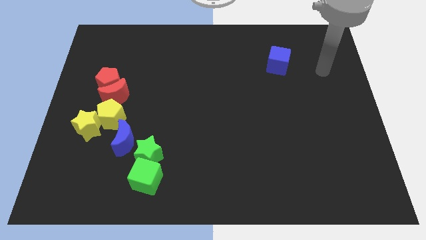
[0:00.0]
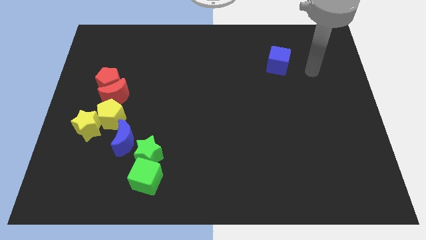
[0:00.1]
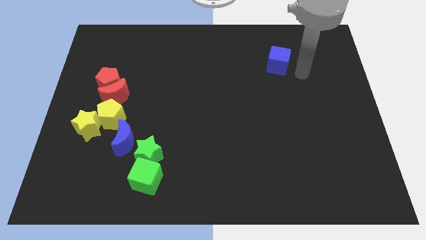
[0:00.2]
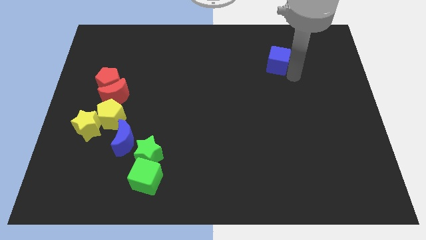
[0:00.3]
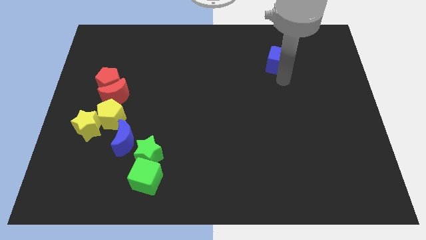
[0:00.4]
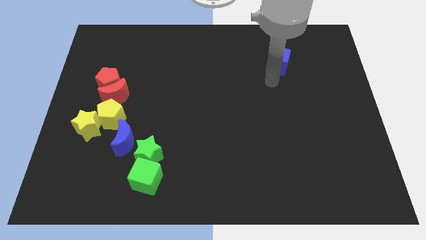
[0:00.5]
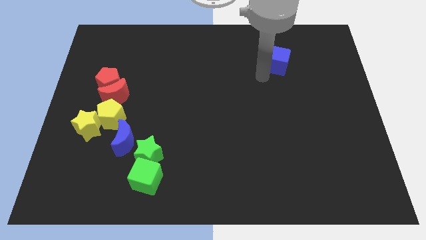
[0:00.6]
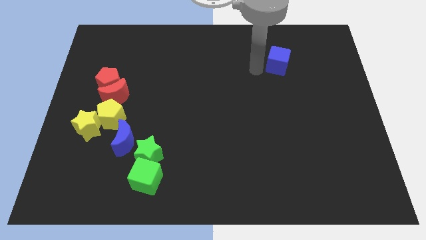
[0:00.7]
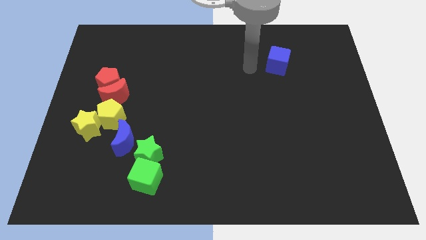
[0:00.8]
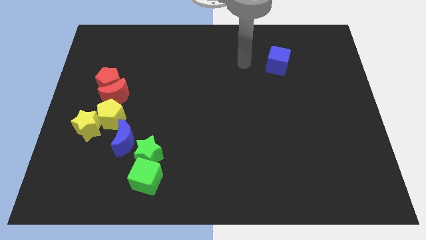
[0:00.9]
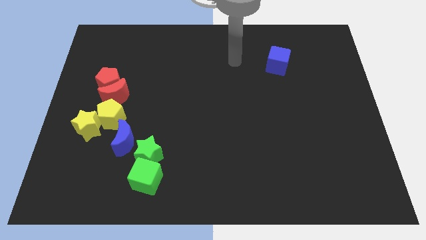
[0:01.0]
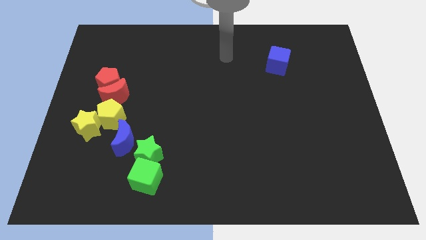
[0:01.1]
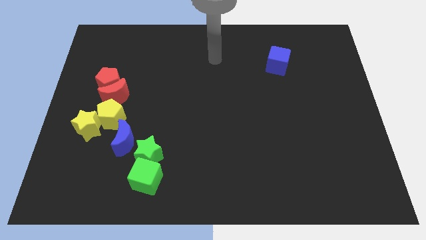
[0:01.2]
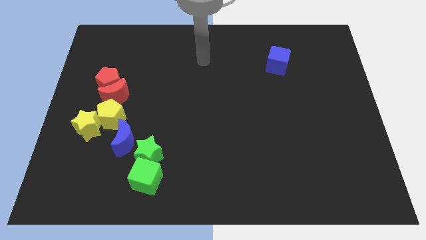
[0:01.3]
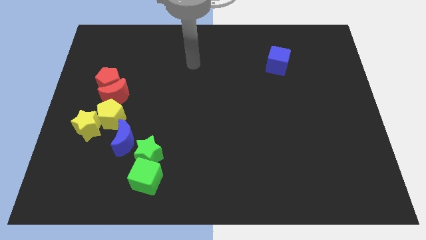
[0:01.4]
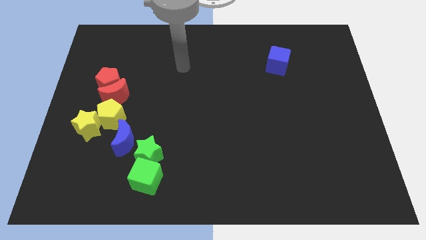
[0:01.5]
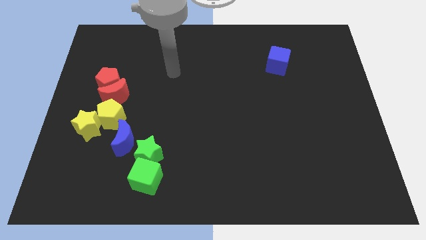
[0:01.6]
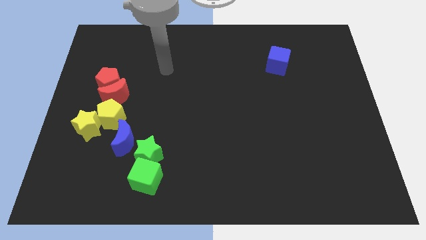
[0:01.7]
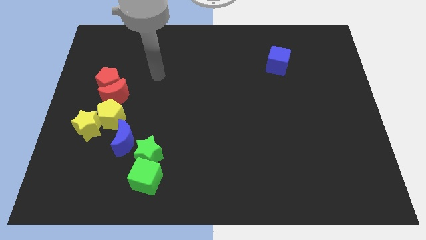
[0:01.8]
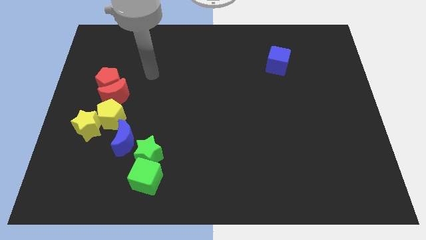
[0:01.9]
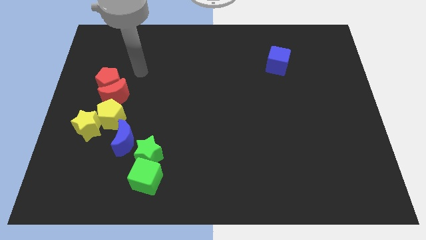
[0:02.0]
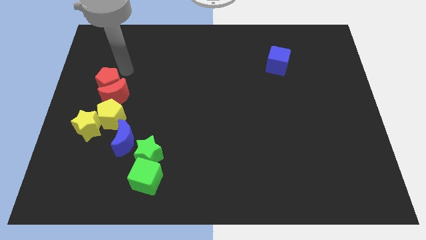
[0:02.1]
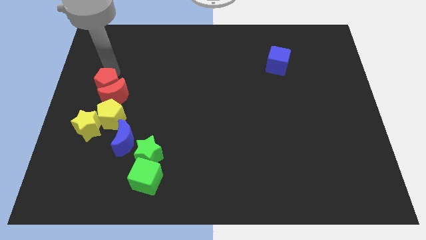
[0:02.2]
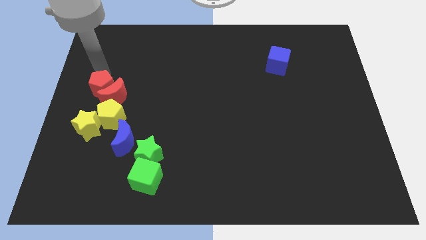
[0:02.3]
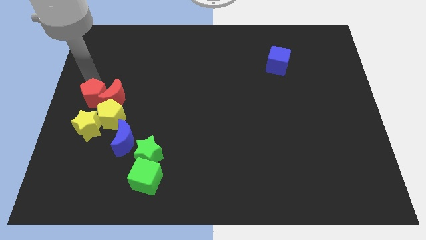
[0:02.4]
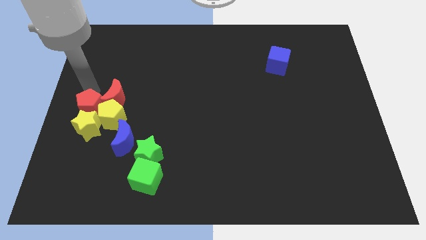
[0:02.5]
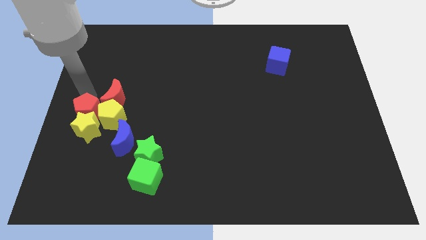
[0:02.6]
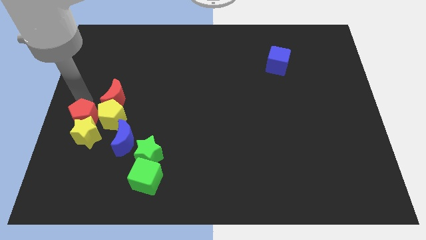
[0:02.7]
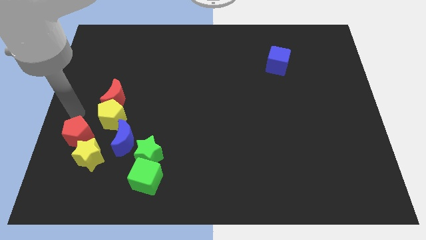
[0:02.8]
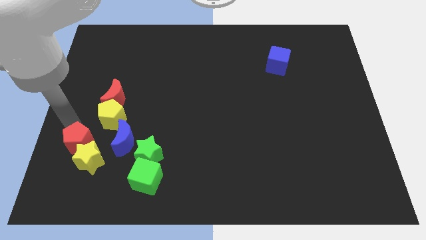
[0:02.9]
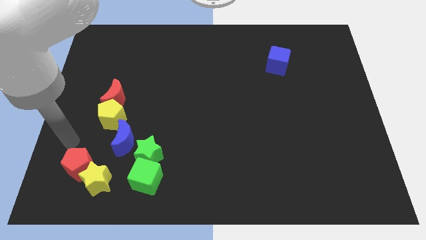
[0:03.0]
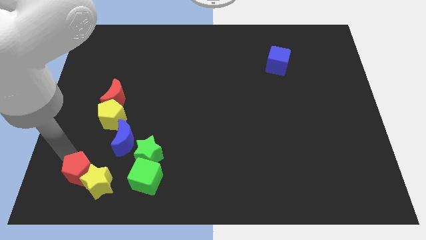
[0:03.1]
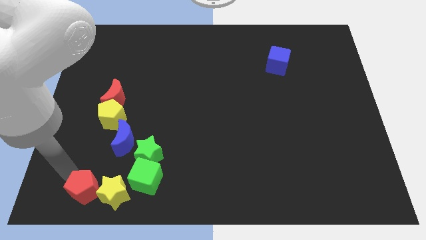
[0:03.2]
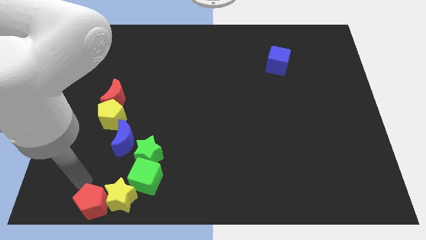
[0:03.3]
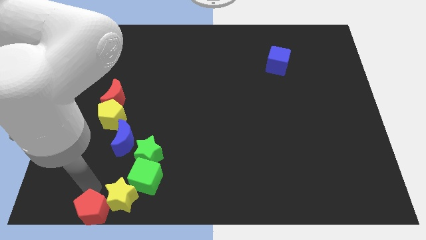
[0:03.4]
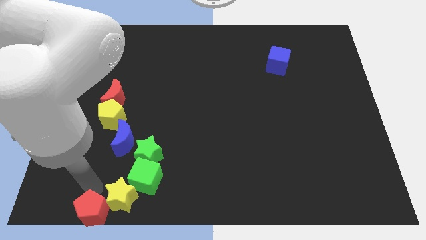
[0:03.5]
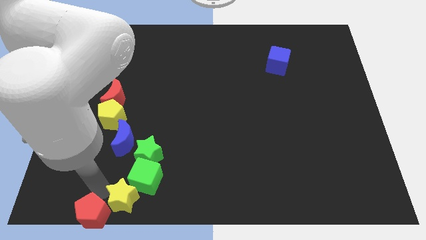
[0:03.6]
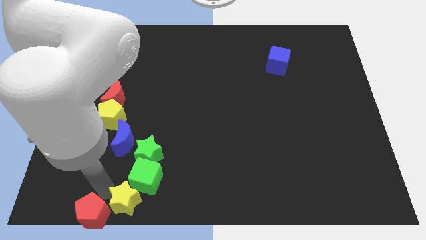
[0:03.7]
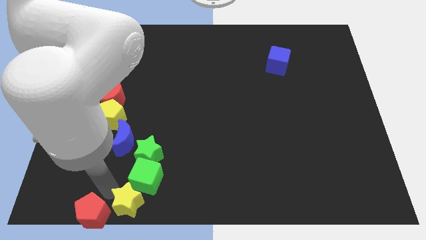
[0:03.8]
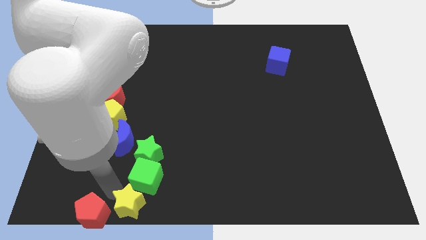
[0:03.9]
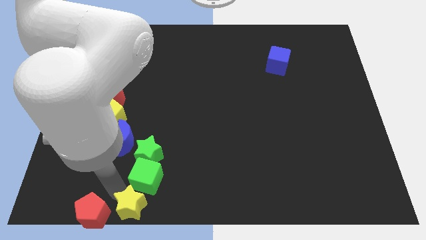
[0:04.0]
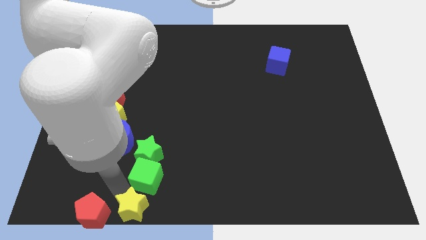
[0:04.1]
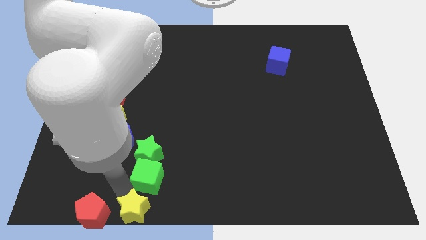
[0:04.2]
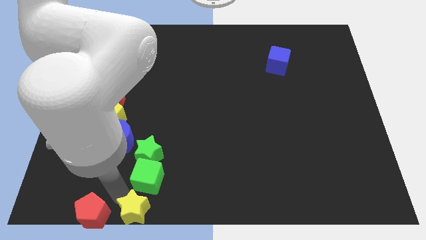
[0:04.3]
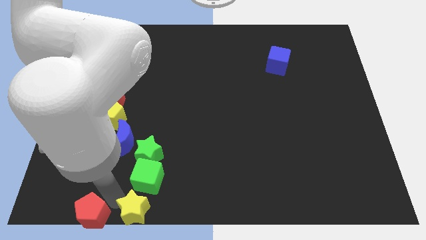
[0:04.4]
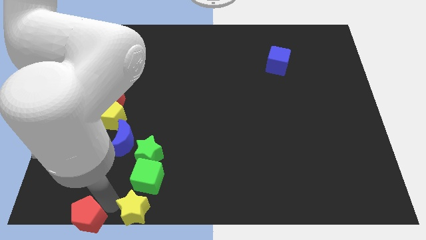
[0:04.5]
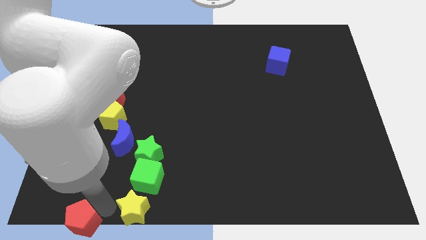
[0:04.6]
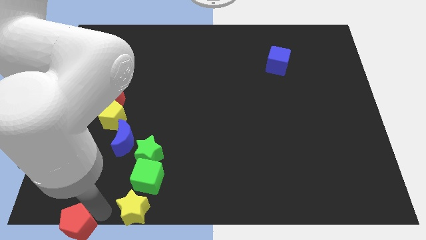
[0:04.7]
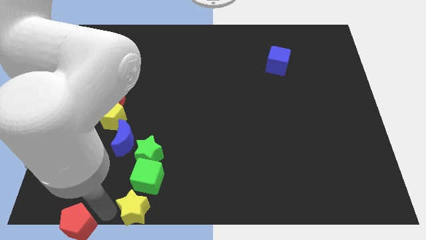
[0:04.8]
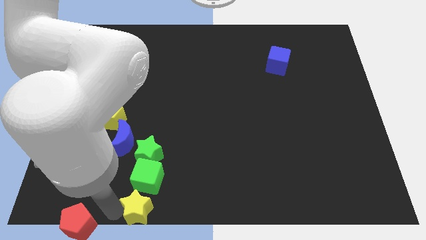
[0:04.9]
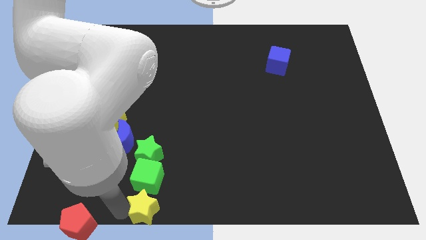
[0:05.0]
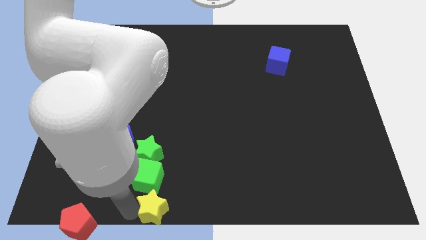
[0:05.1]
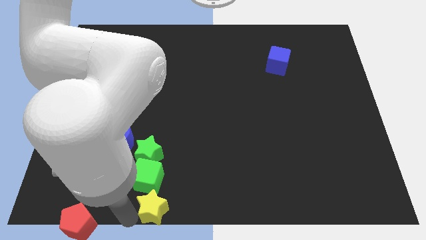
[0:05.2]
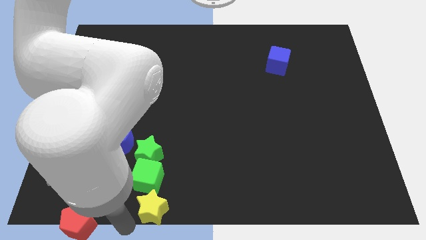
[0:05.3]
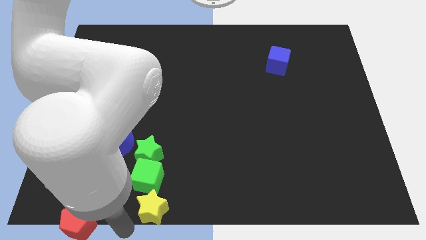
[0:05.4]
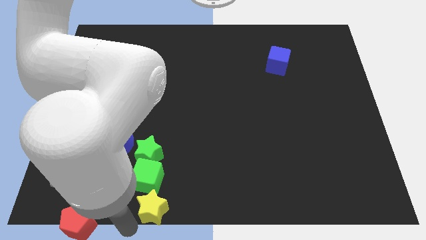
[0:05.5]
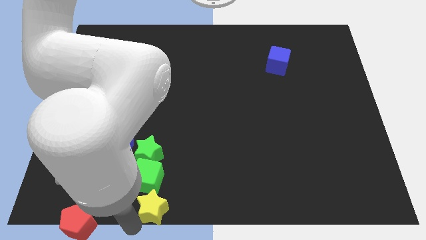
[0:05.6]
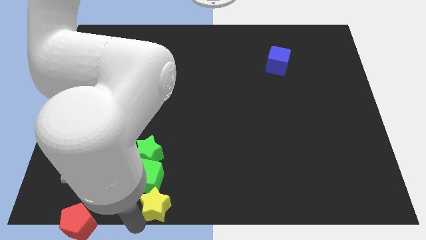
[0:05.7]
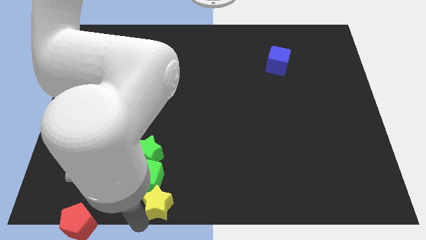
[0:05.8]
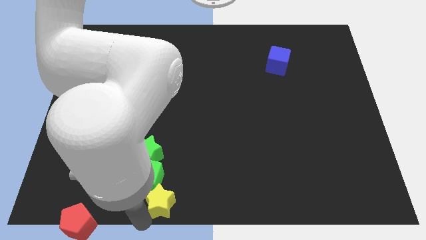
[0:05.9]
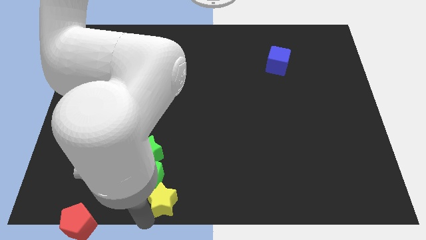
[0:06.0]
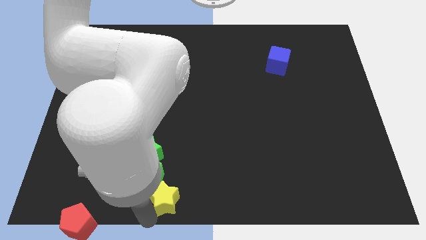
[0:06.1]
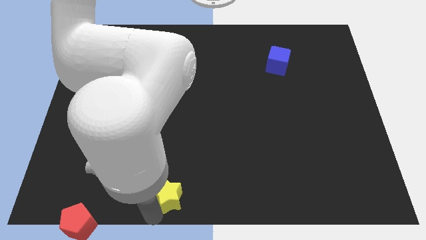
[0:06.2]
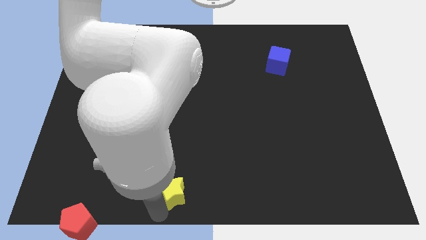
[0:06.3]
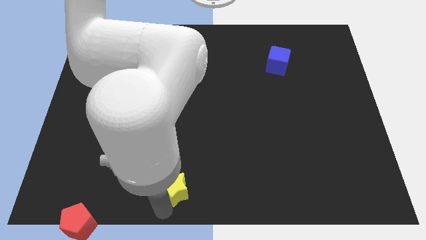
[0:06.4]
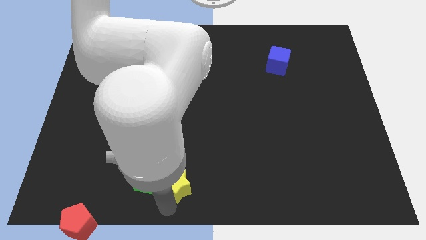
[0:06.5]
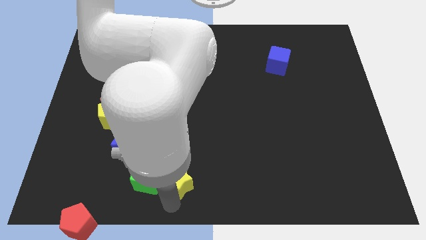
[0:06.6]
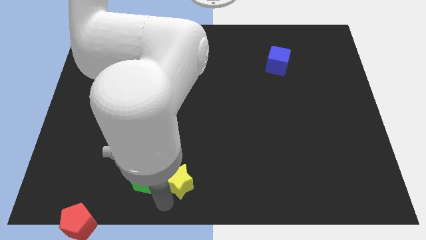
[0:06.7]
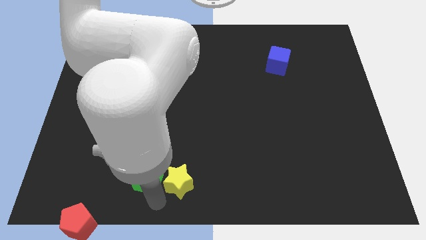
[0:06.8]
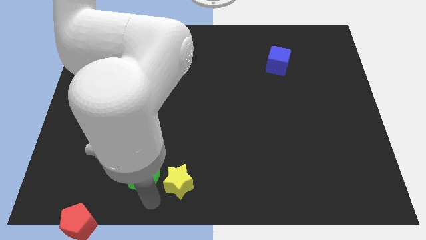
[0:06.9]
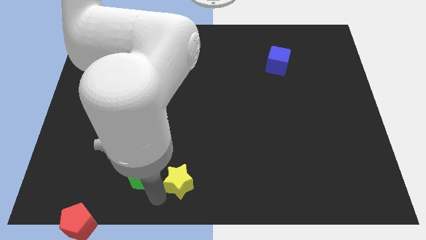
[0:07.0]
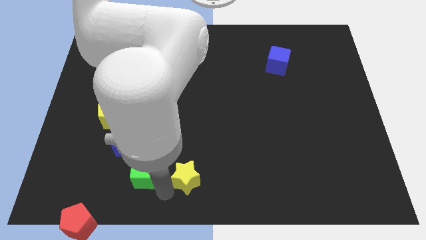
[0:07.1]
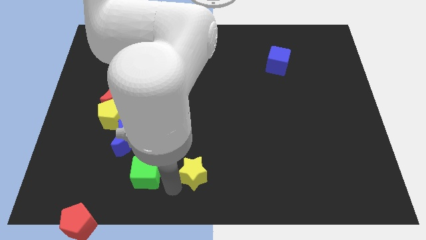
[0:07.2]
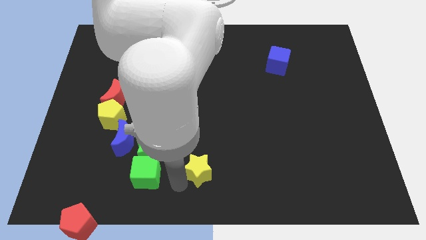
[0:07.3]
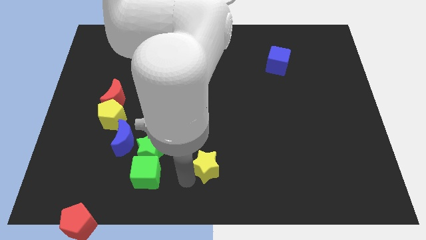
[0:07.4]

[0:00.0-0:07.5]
move the yellow star right

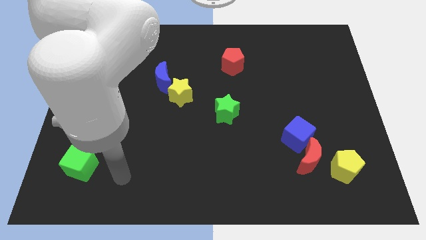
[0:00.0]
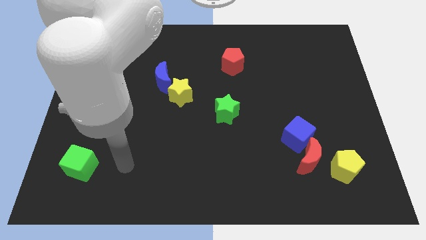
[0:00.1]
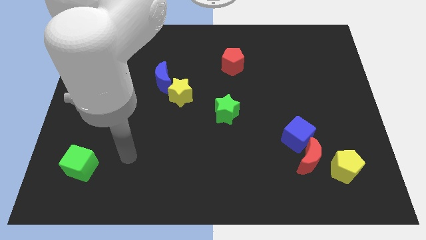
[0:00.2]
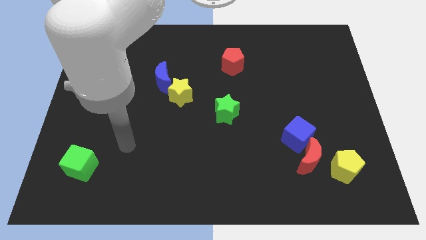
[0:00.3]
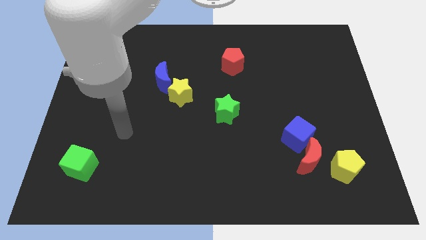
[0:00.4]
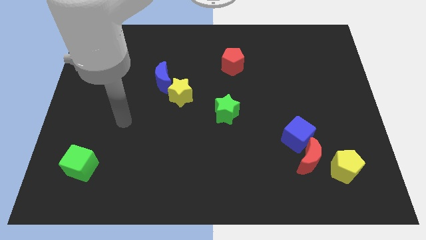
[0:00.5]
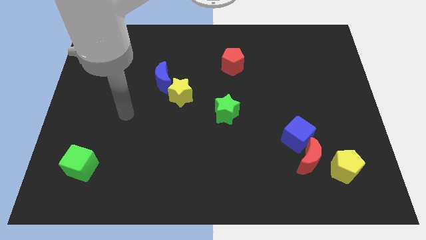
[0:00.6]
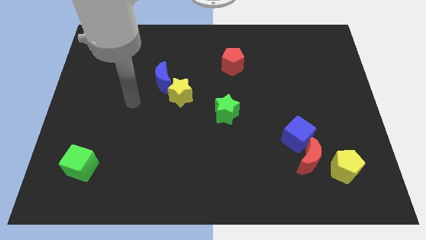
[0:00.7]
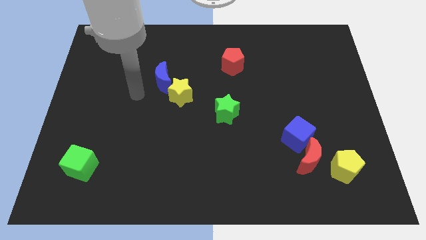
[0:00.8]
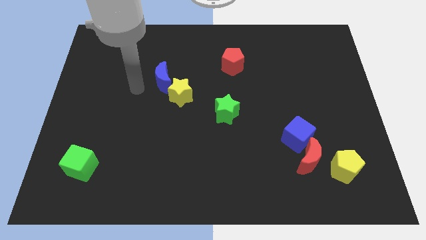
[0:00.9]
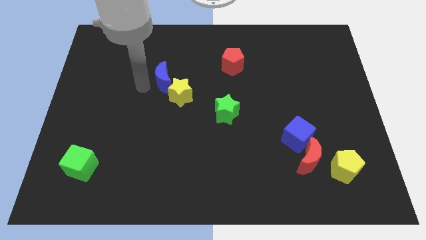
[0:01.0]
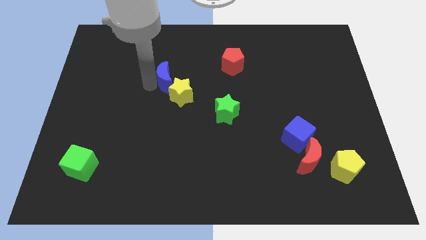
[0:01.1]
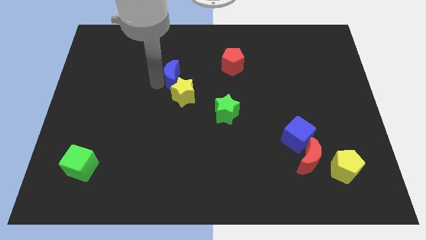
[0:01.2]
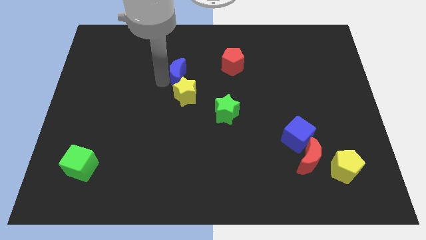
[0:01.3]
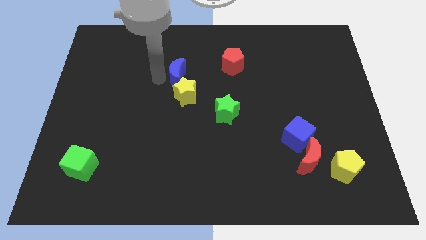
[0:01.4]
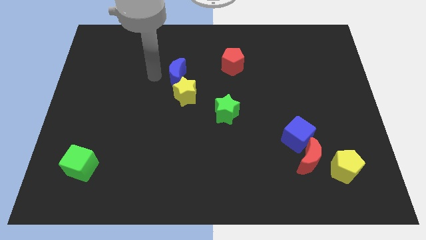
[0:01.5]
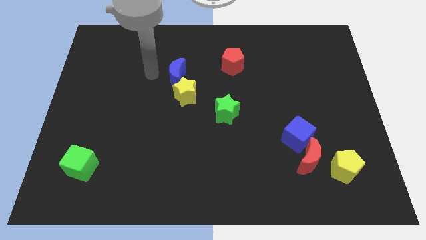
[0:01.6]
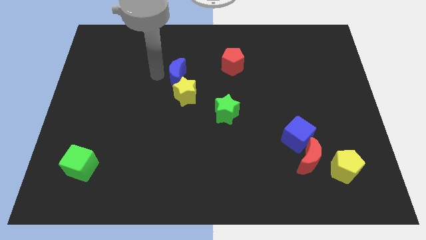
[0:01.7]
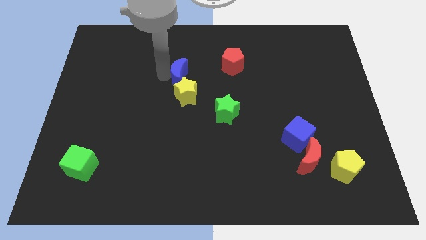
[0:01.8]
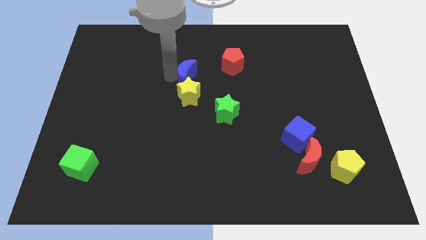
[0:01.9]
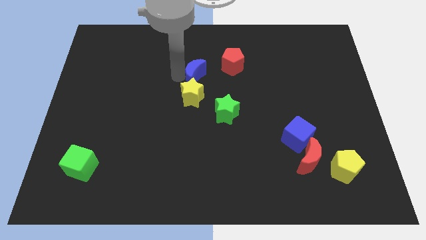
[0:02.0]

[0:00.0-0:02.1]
slightly move the blue moon to the right
